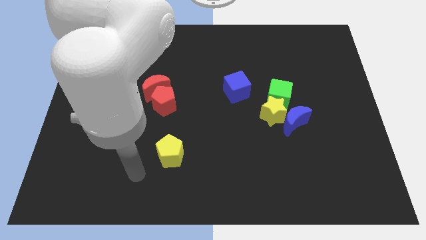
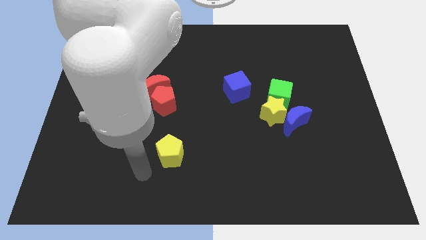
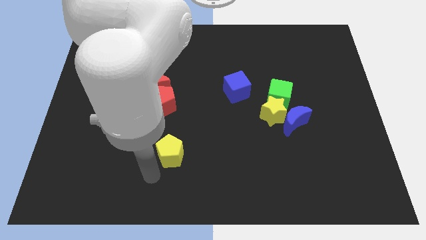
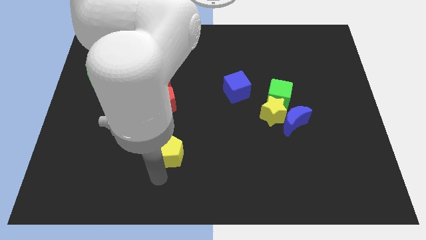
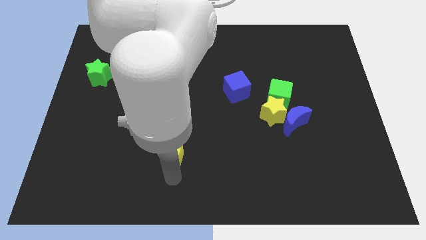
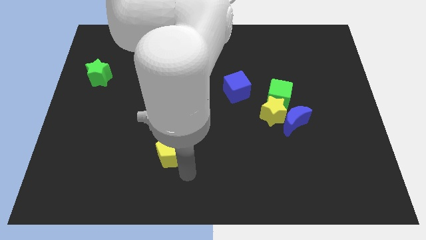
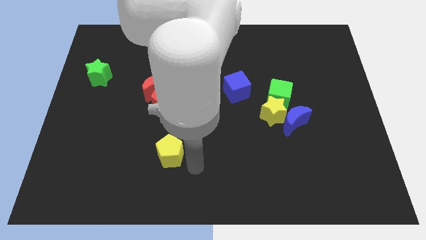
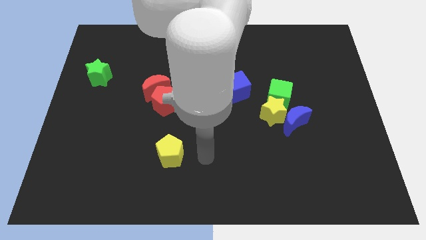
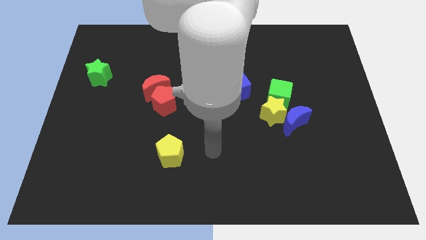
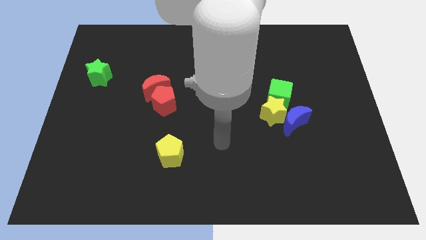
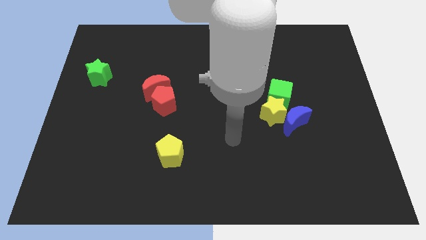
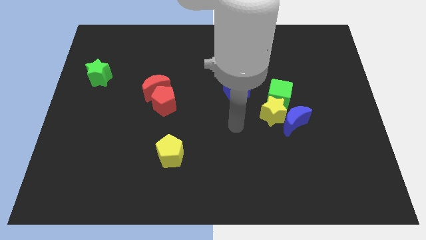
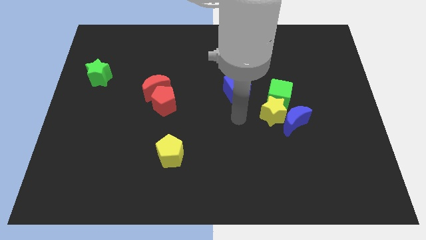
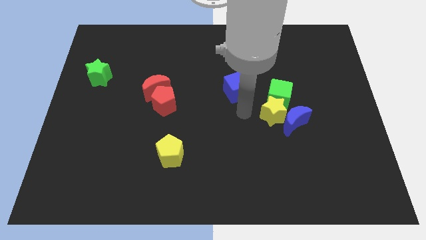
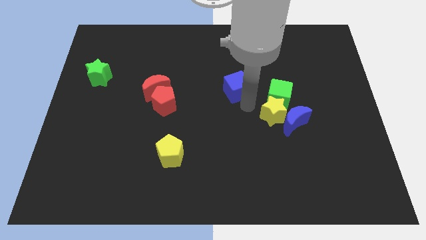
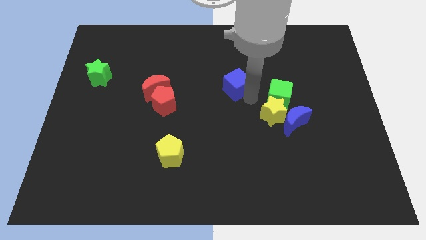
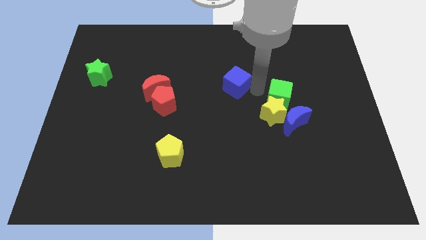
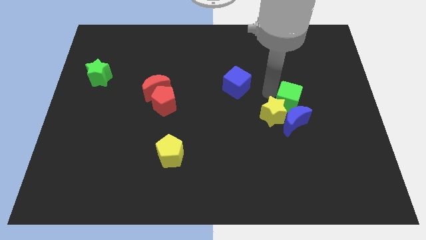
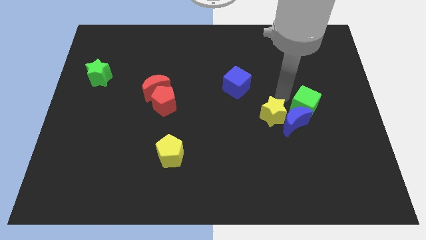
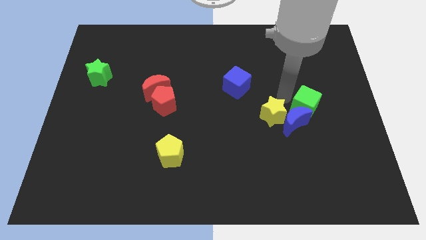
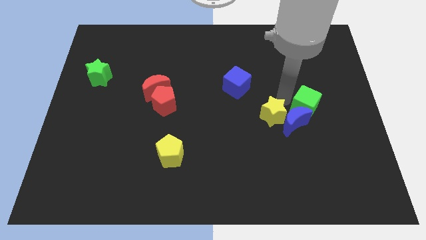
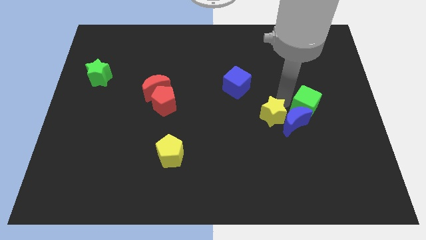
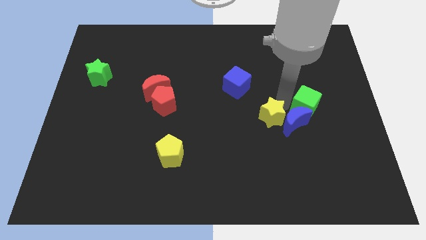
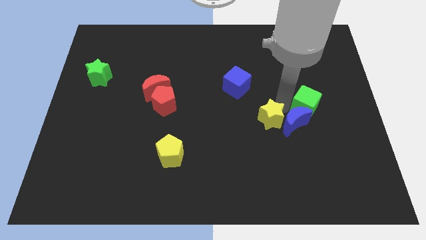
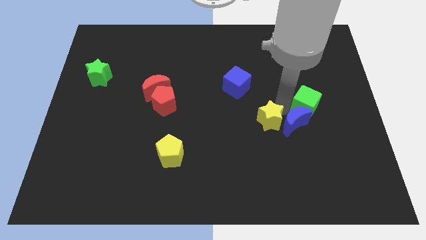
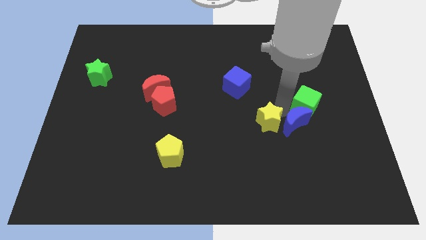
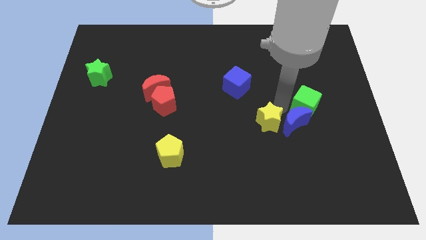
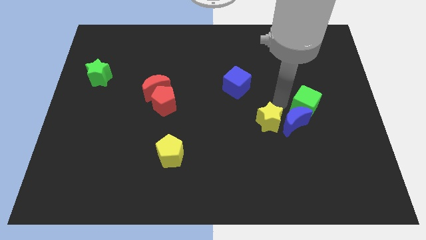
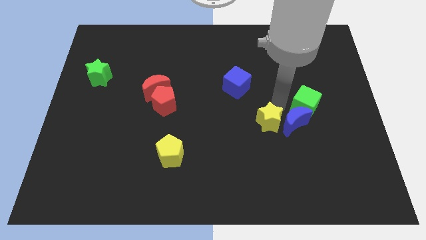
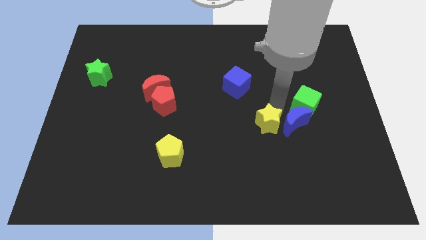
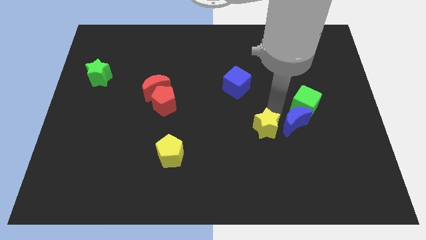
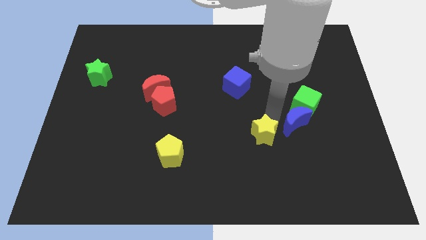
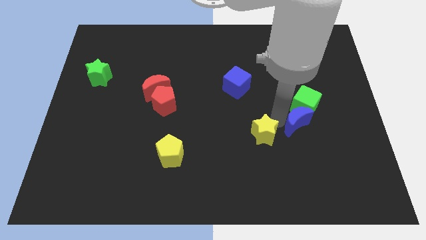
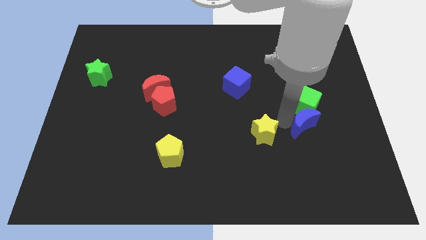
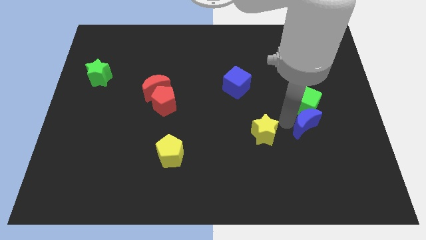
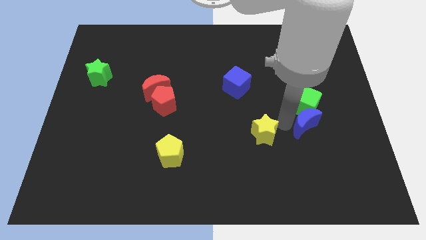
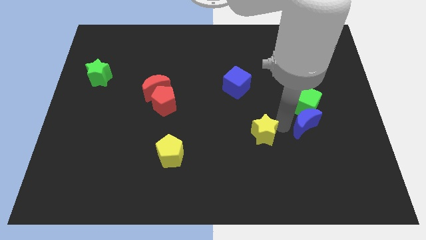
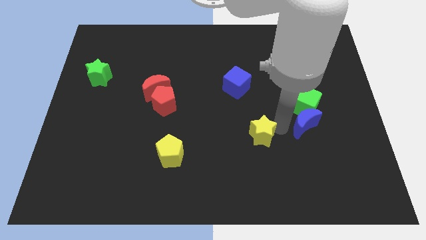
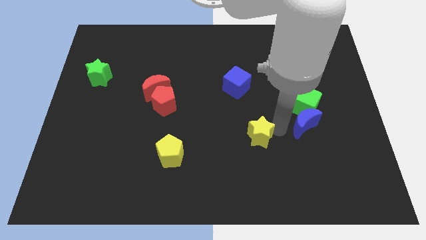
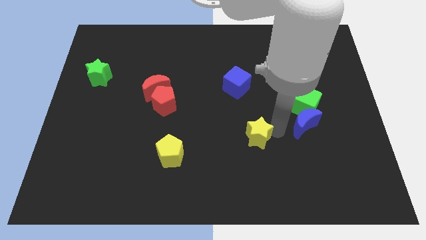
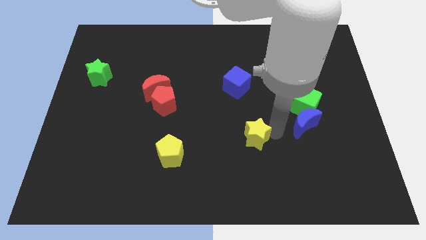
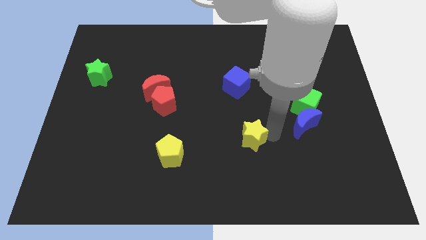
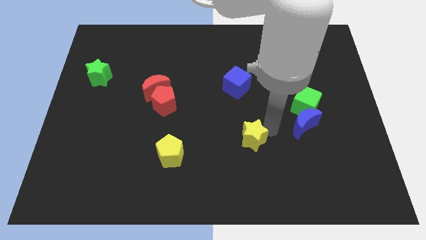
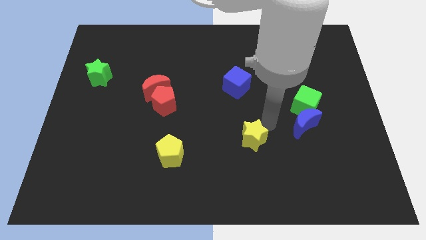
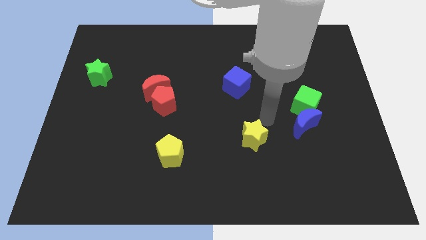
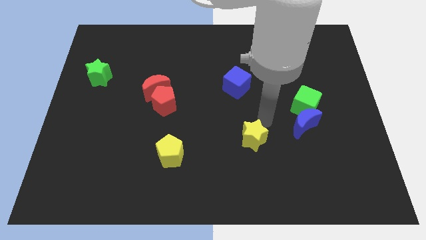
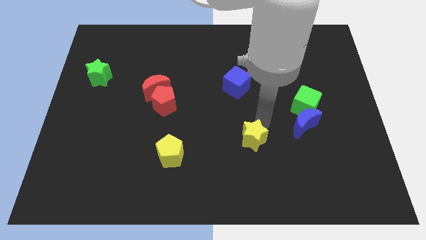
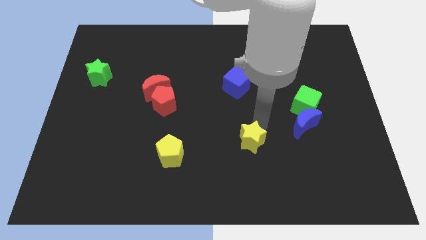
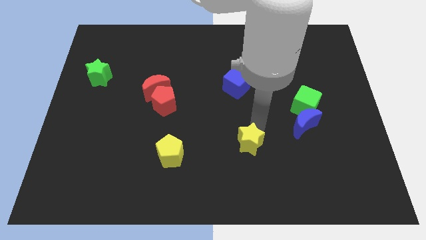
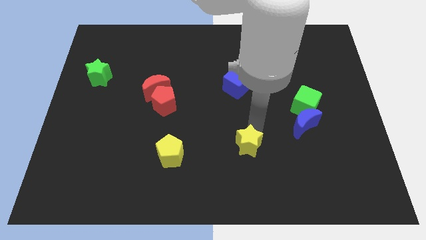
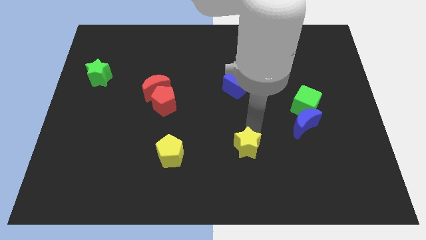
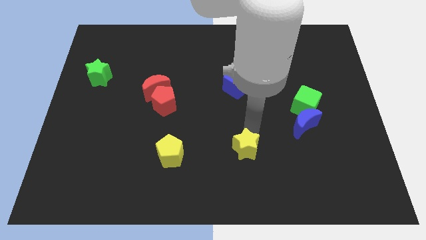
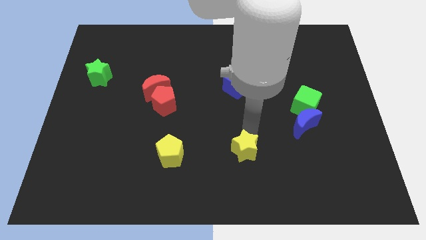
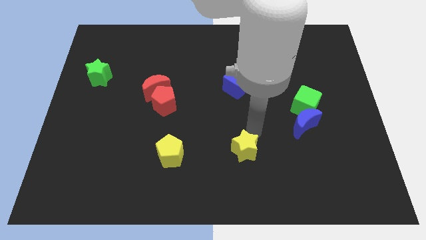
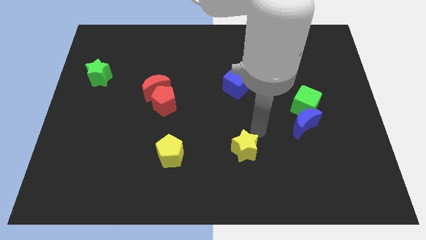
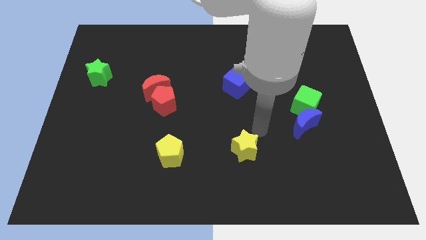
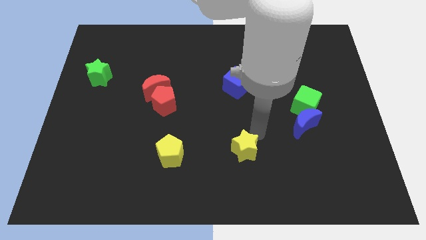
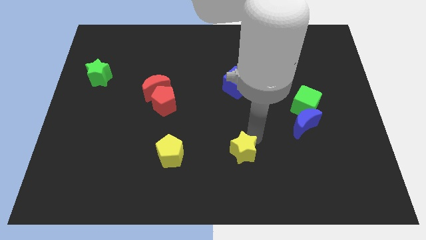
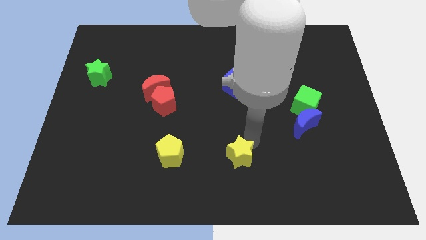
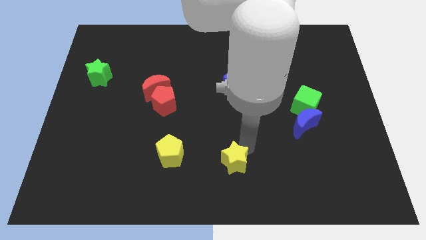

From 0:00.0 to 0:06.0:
move the yellow star to the bottom side

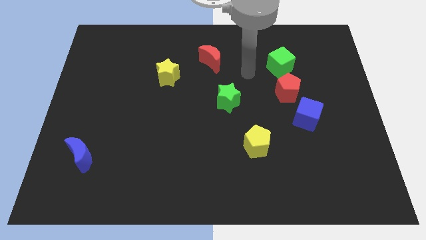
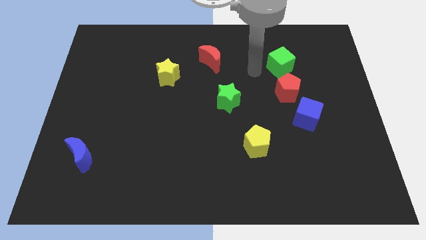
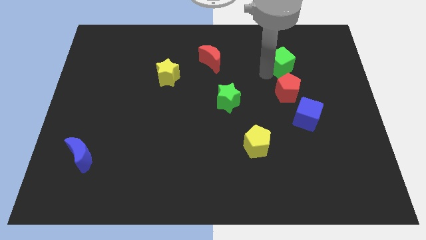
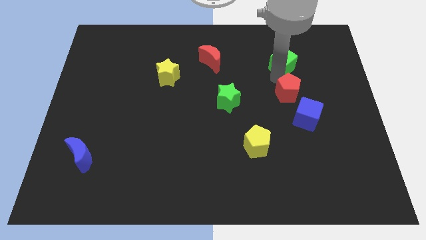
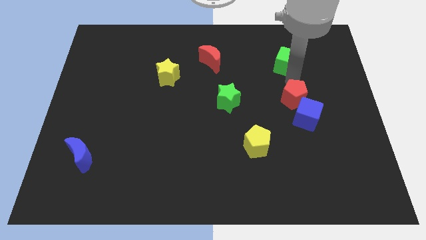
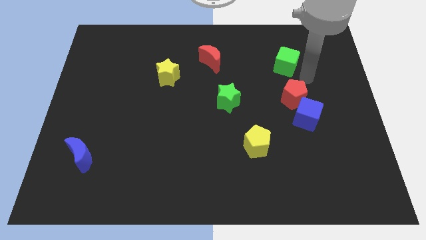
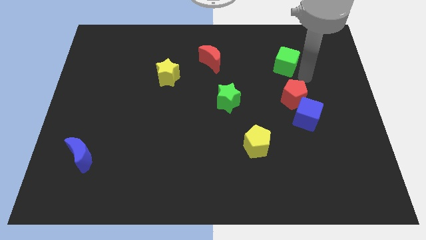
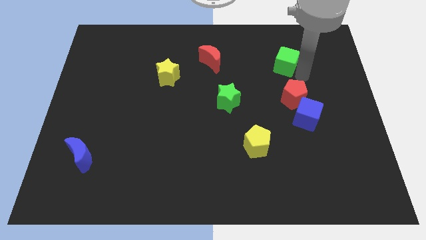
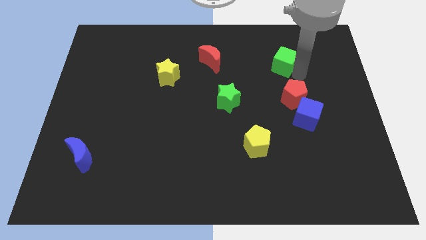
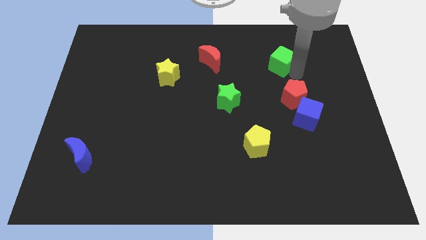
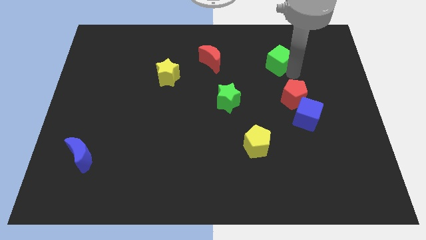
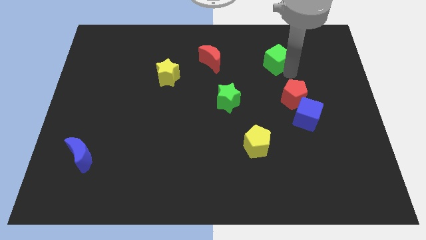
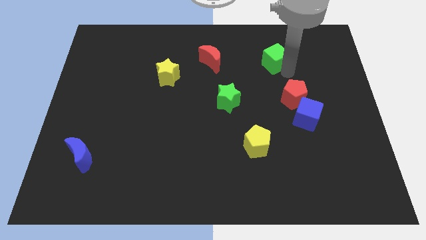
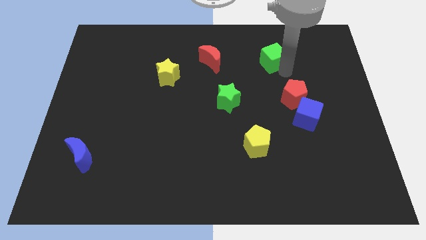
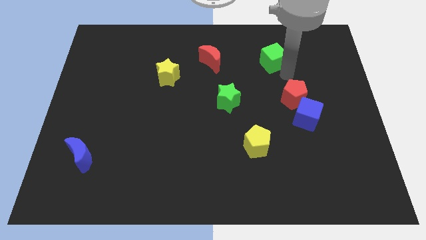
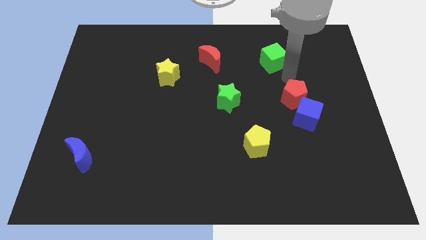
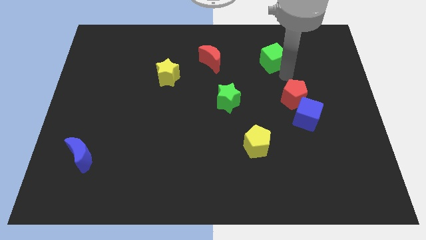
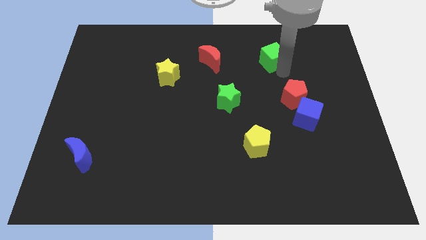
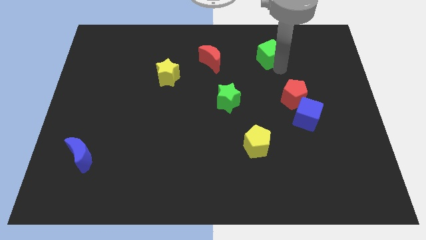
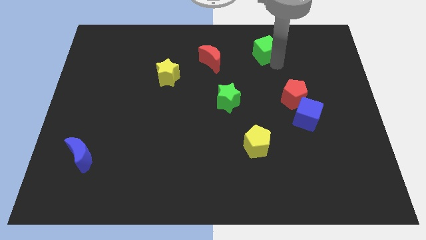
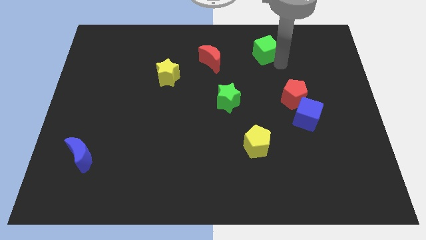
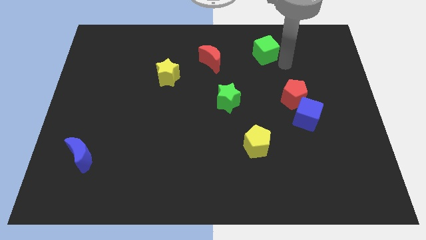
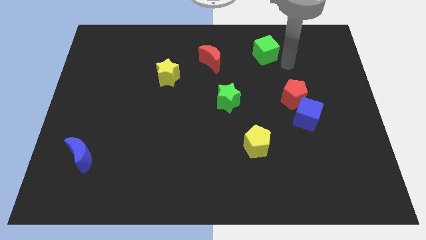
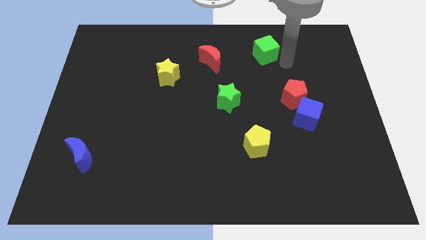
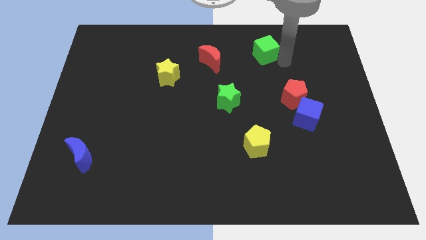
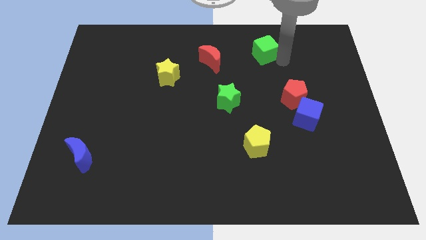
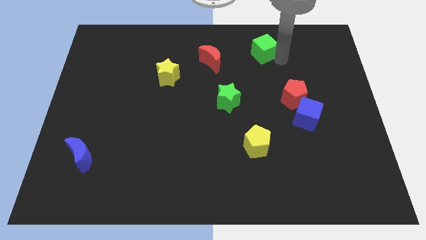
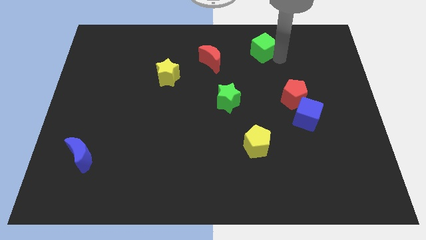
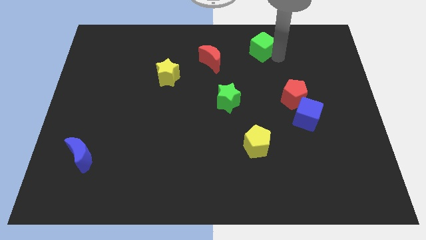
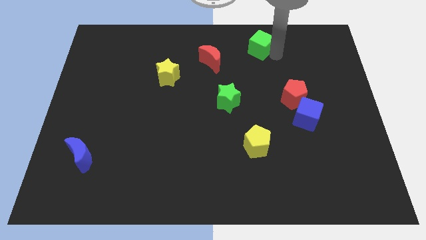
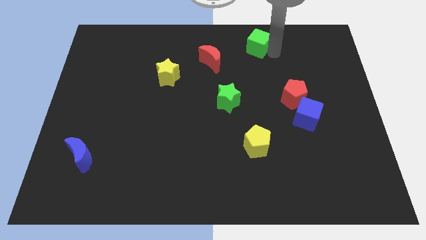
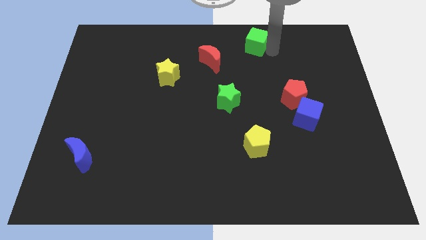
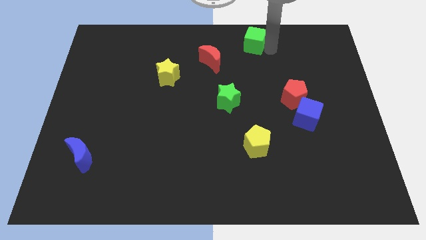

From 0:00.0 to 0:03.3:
slide the green cube to the top side
